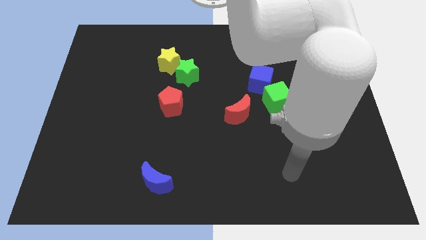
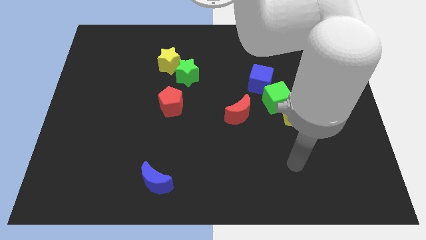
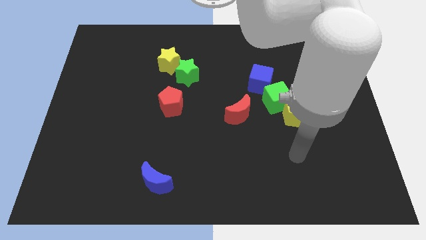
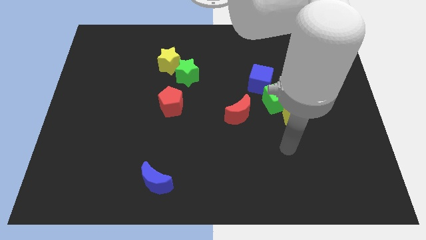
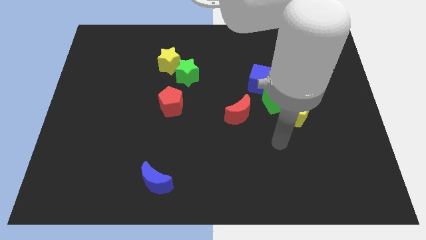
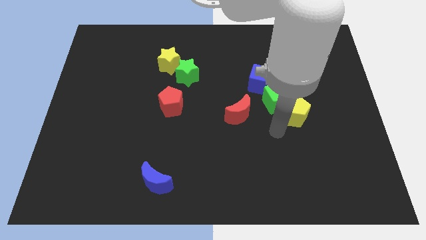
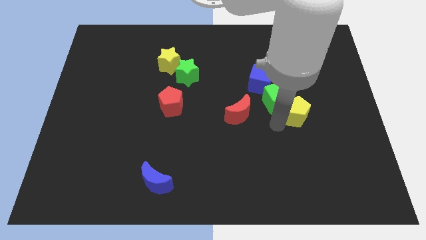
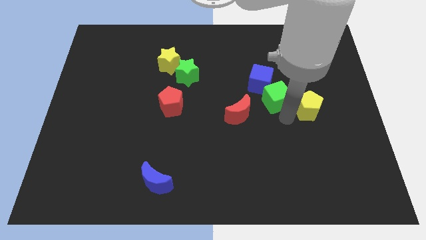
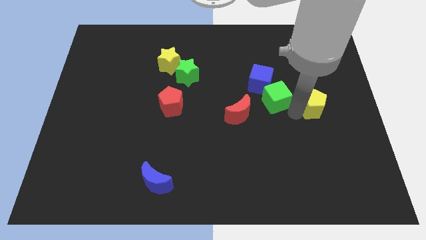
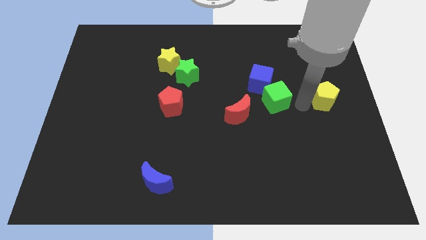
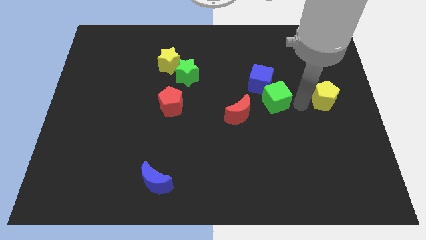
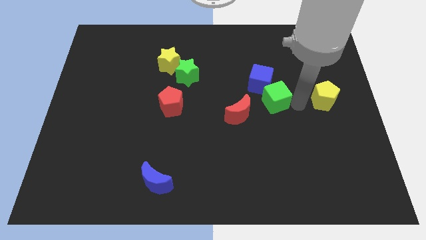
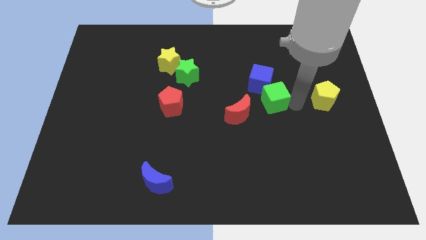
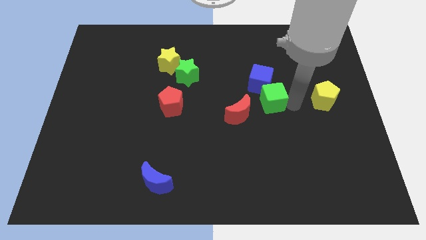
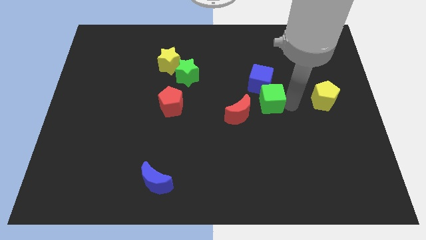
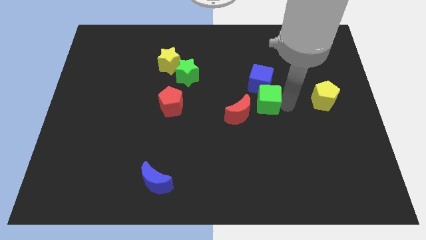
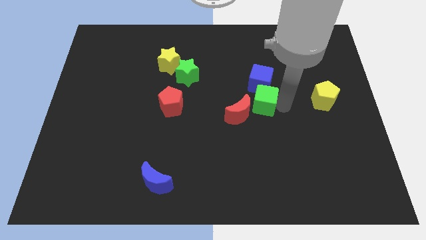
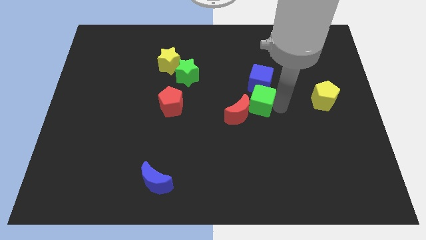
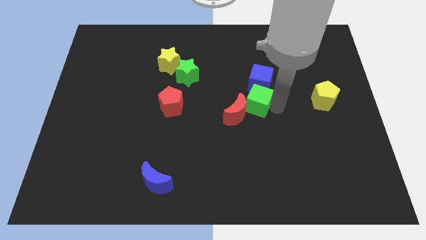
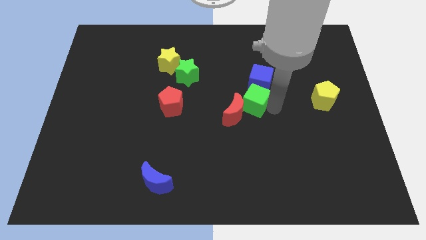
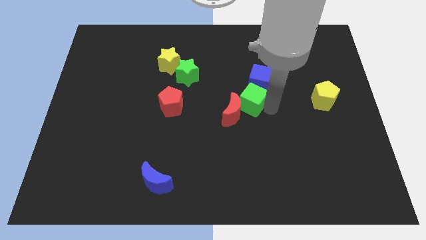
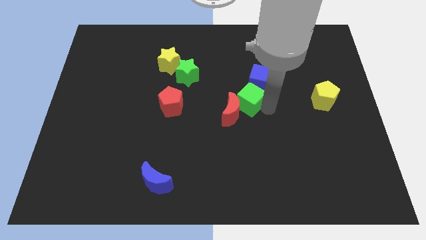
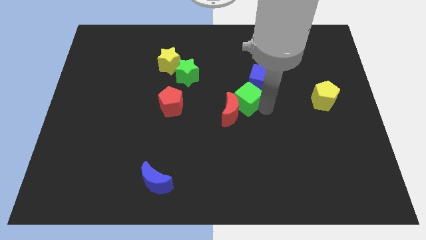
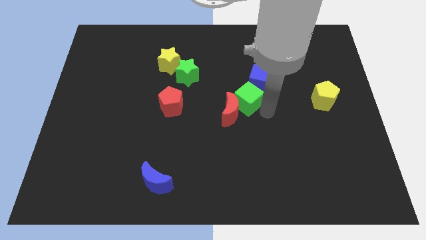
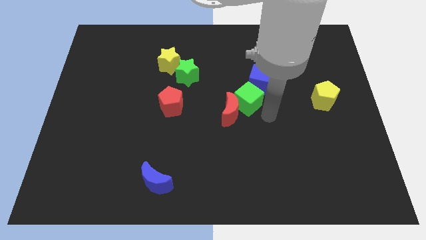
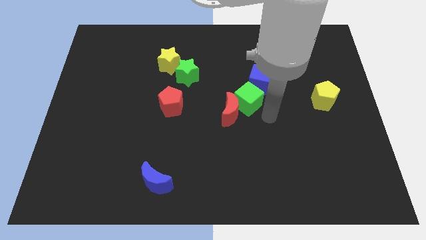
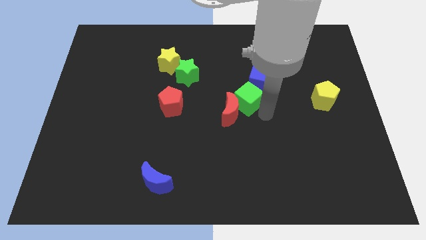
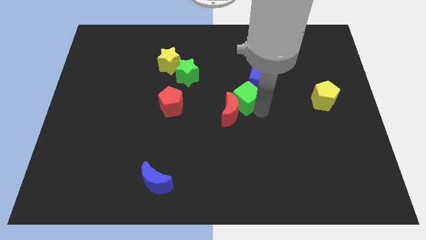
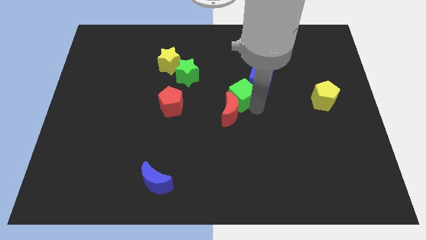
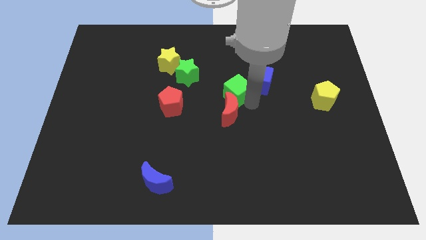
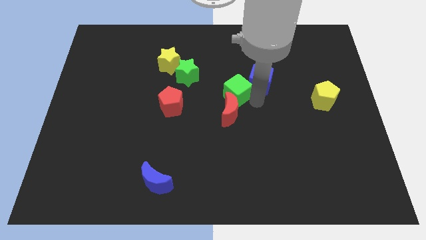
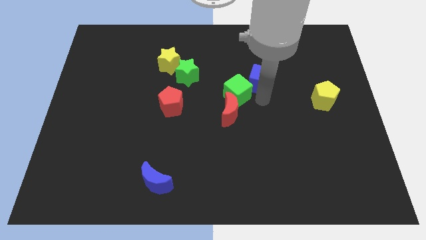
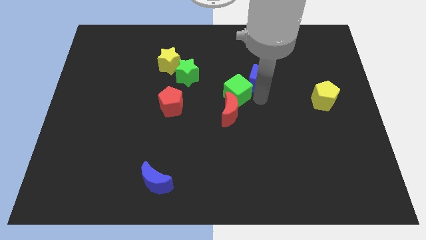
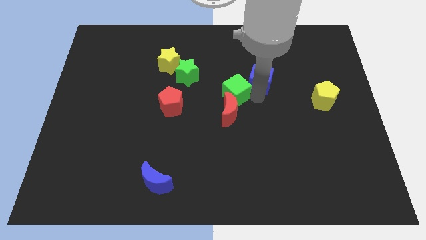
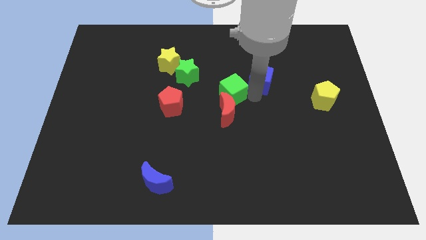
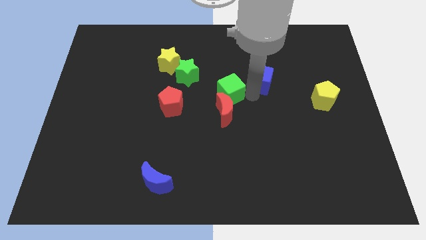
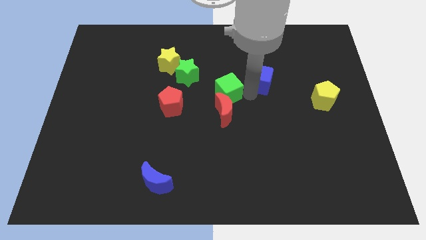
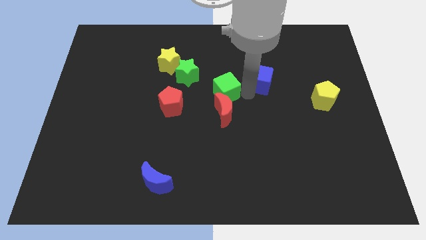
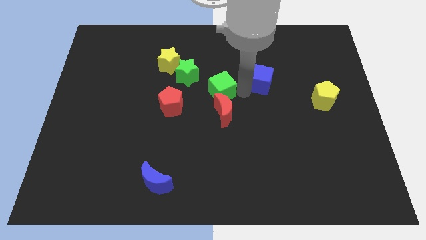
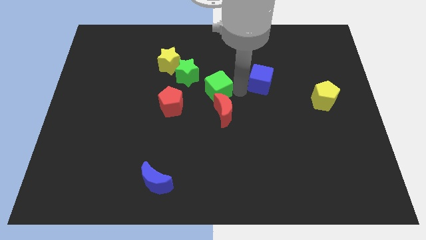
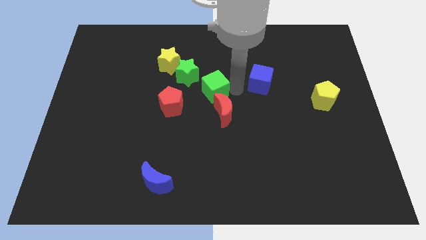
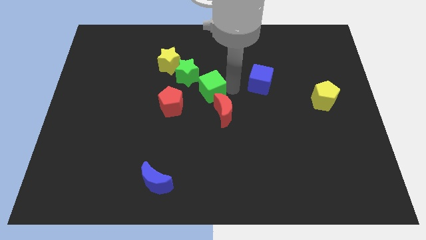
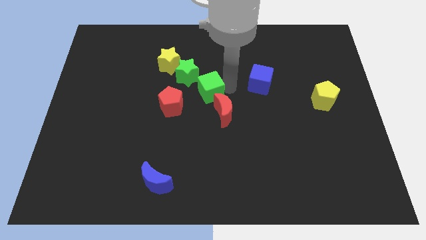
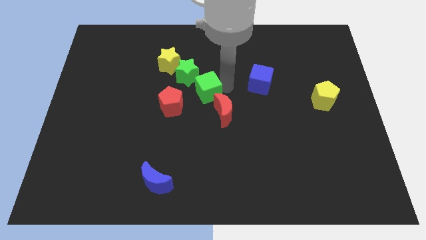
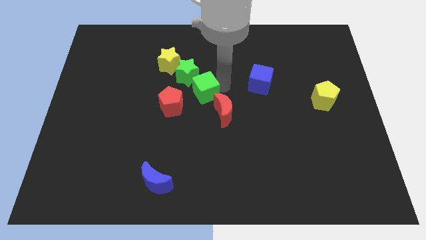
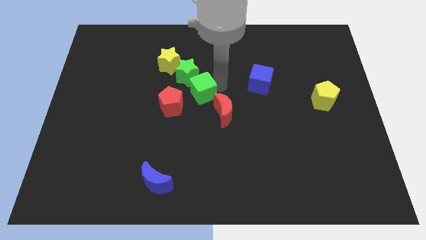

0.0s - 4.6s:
move the green cube towards the green star

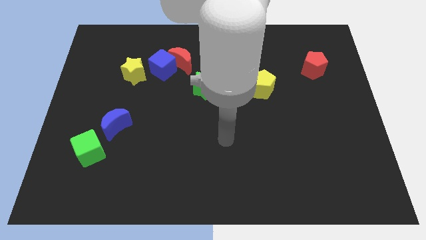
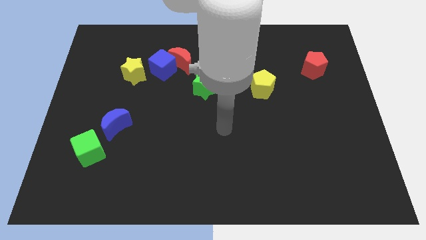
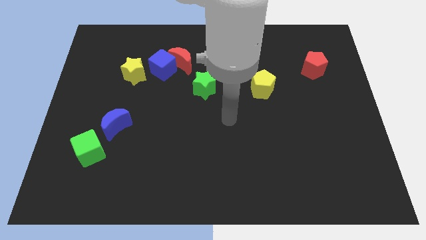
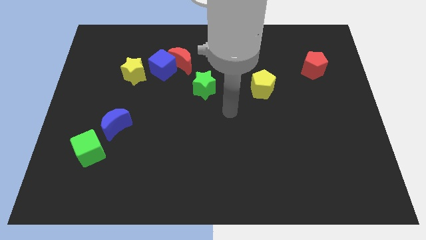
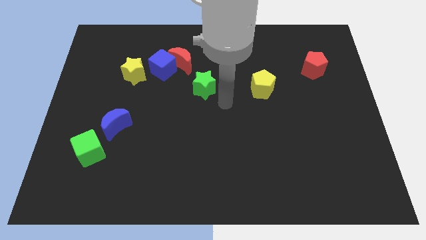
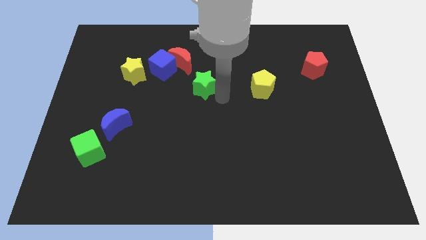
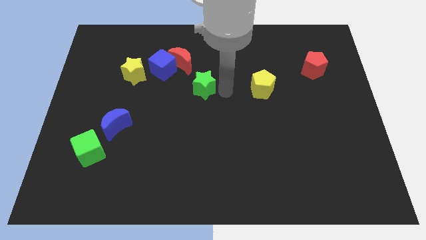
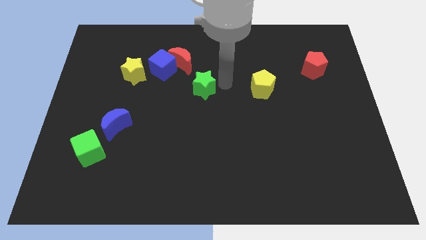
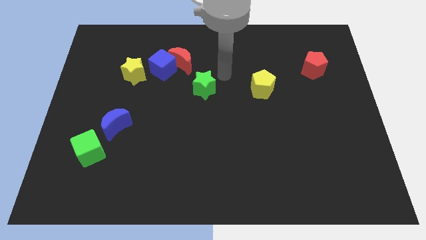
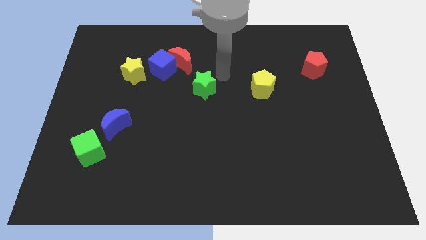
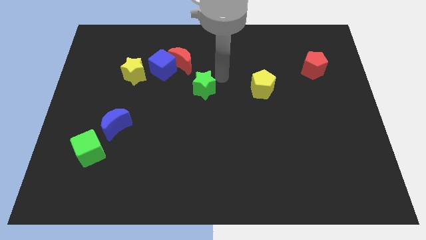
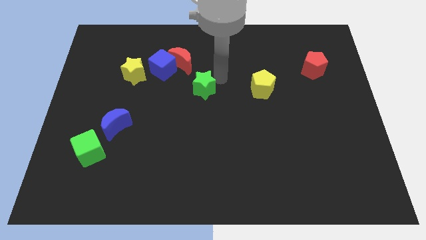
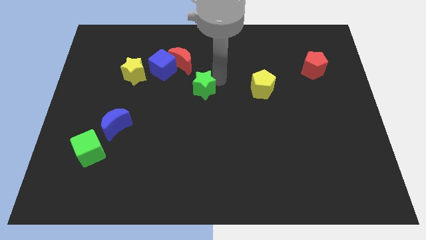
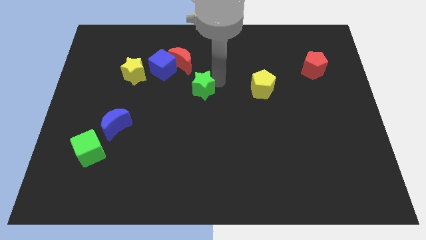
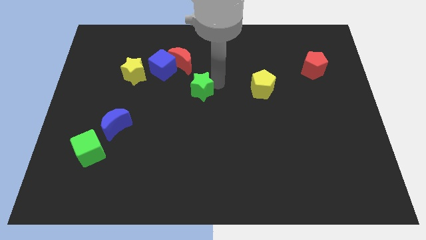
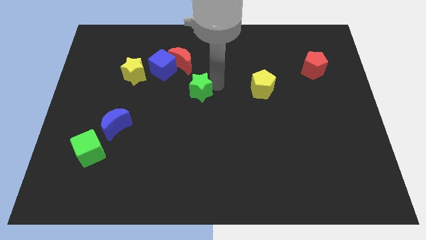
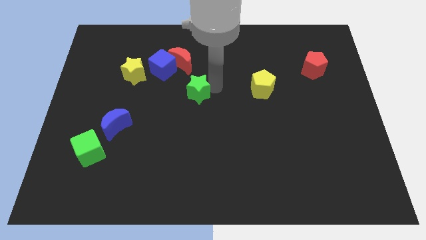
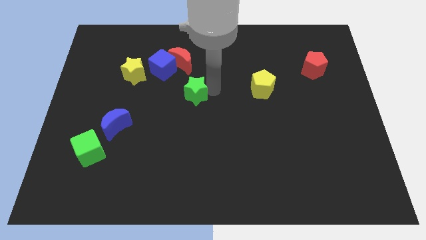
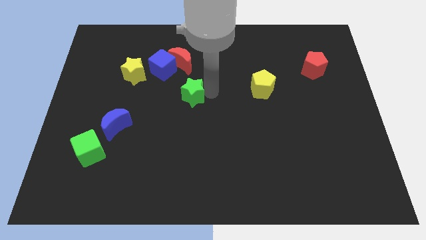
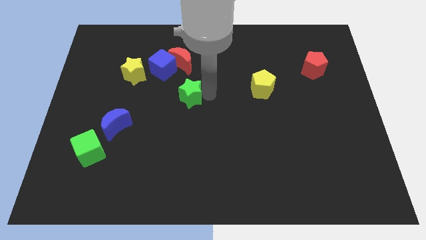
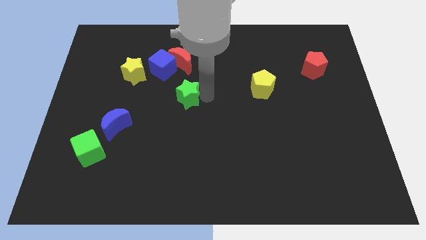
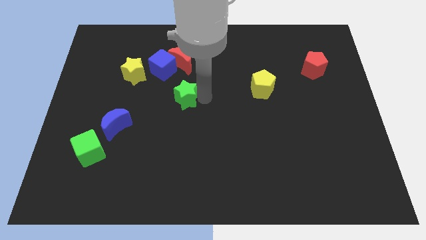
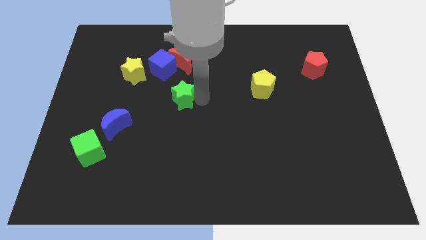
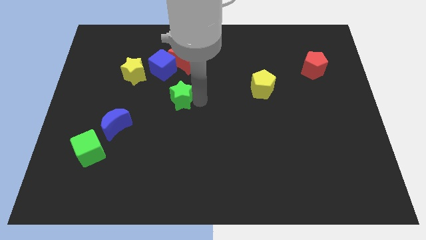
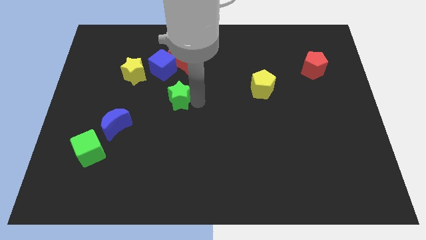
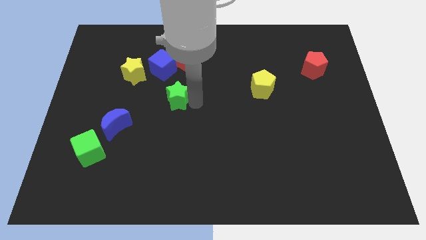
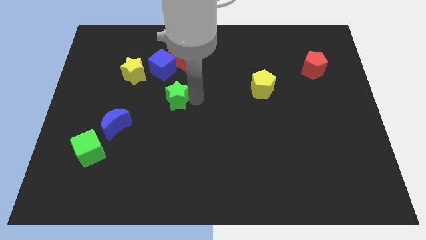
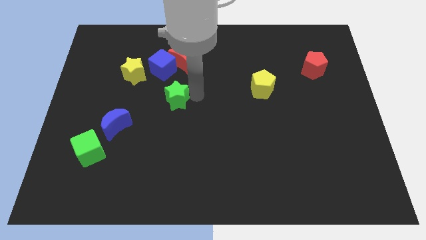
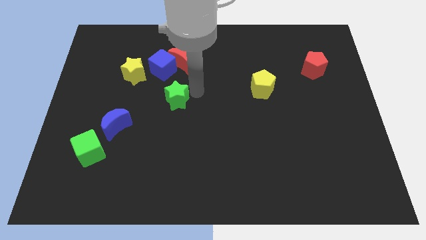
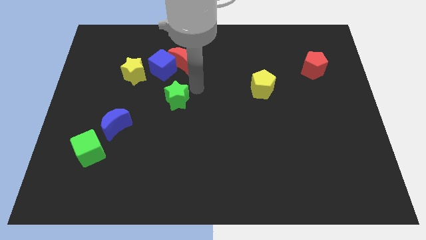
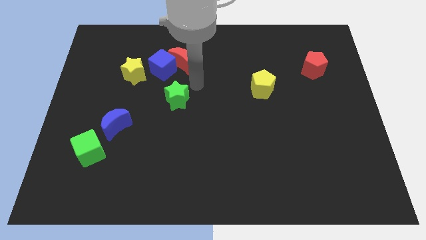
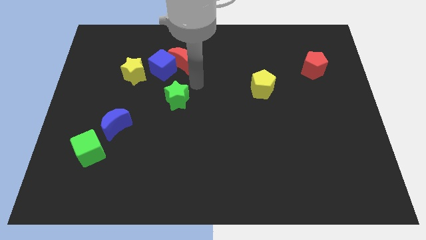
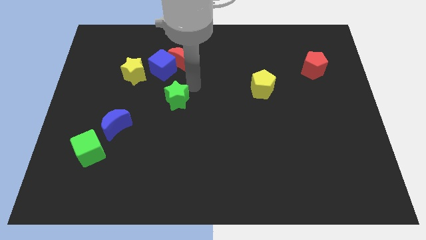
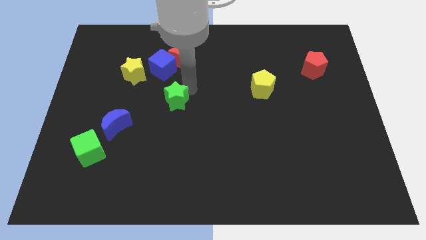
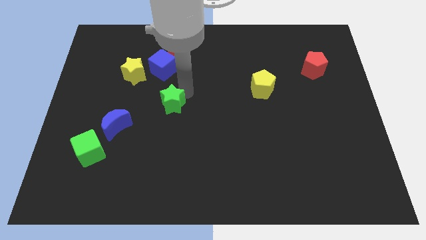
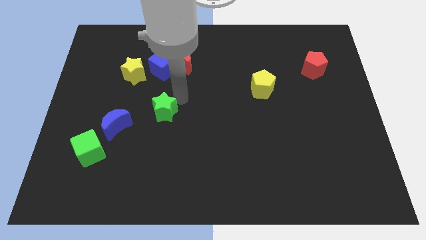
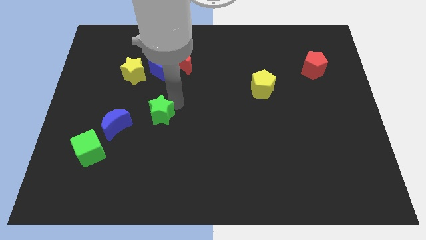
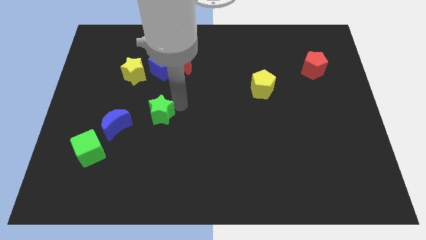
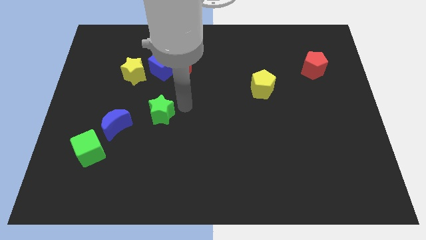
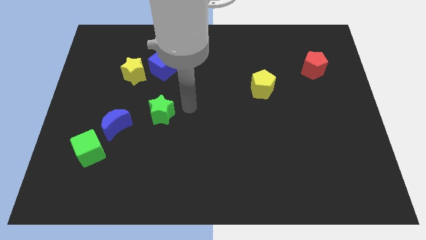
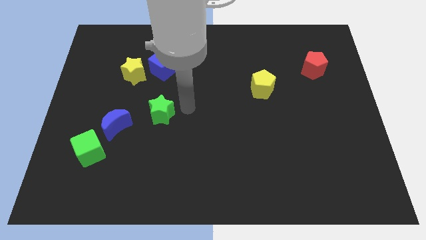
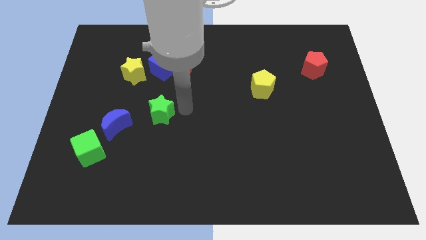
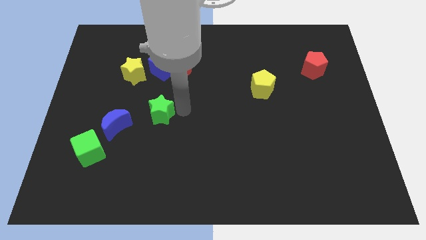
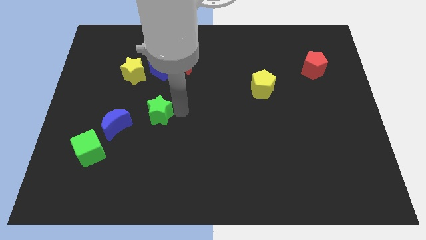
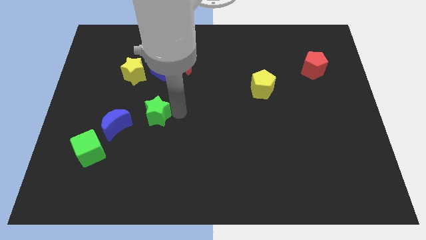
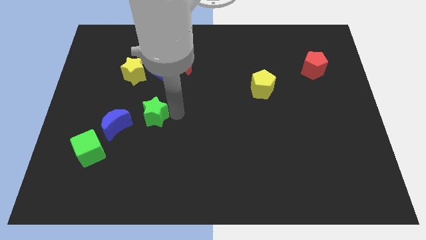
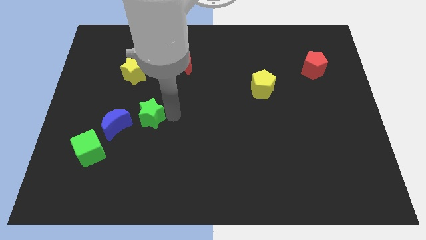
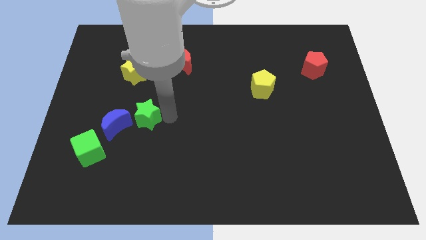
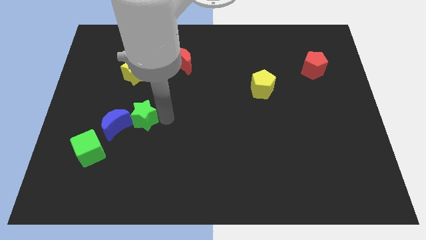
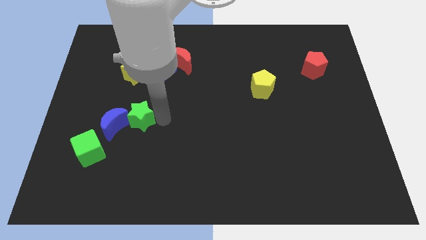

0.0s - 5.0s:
push the green star to the blue moon
